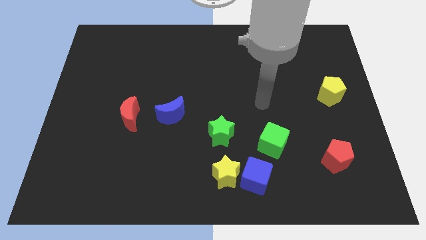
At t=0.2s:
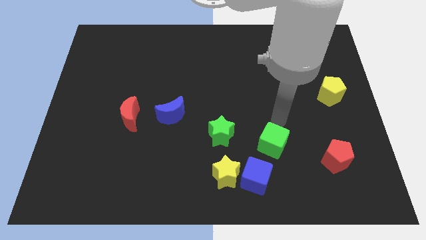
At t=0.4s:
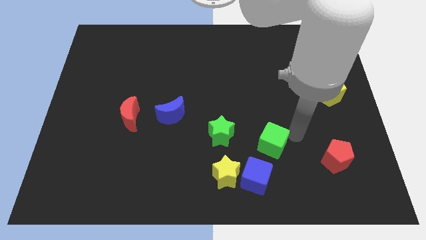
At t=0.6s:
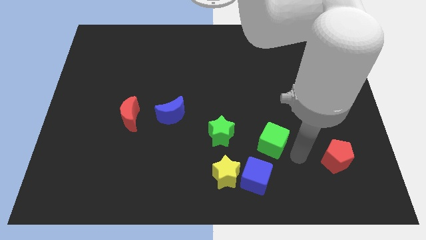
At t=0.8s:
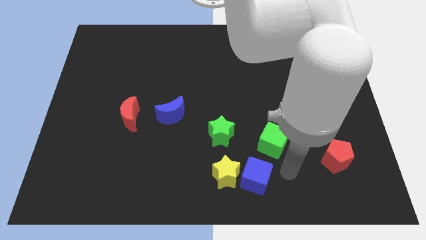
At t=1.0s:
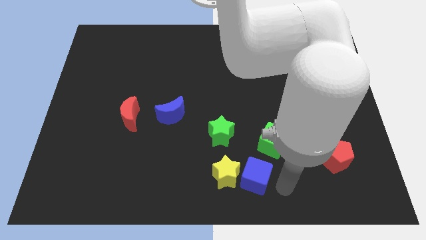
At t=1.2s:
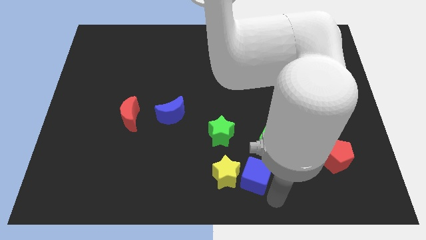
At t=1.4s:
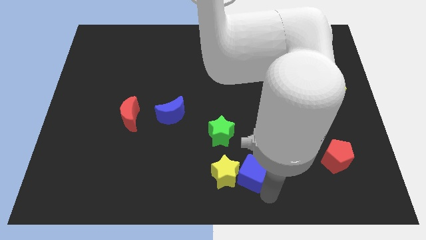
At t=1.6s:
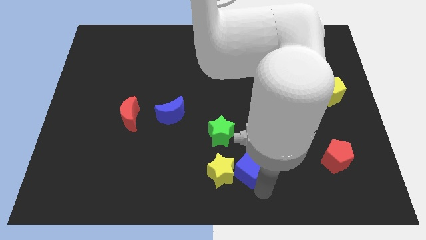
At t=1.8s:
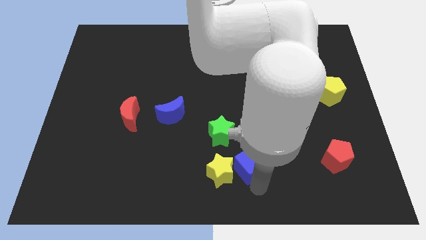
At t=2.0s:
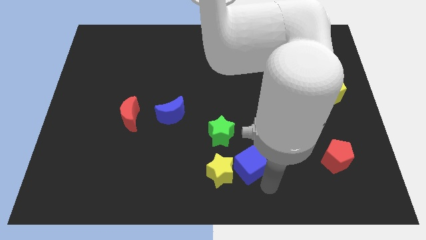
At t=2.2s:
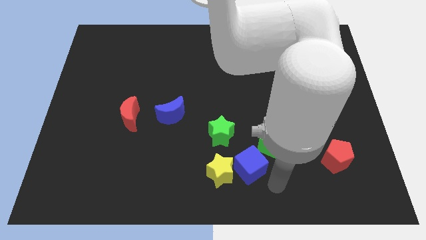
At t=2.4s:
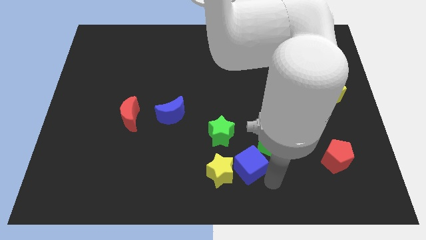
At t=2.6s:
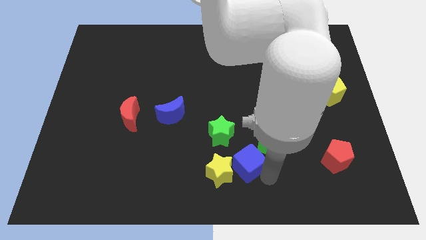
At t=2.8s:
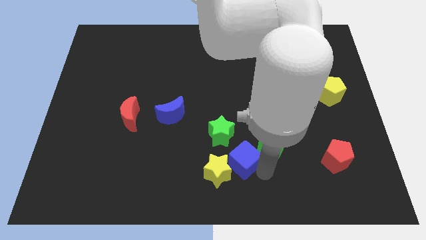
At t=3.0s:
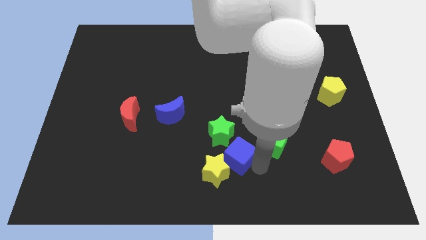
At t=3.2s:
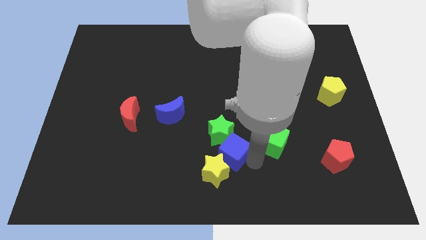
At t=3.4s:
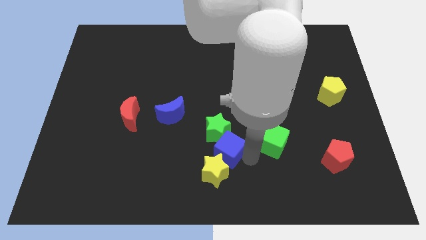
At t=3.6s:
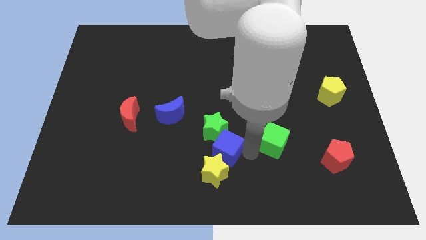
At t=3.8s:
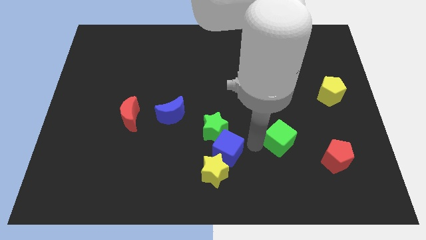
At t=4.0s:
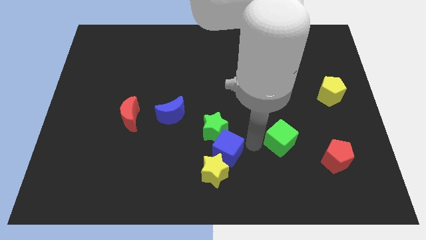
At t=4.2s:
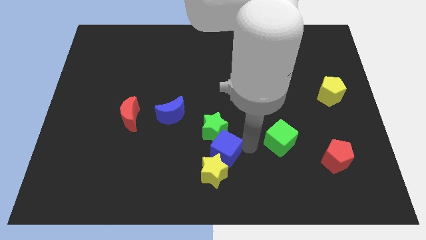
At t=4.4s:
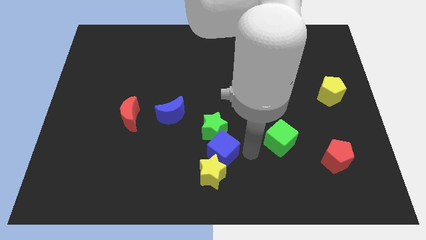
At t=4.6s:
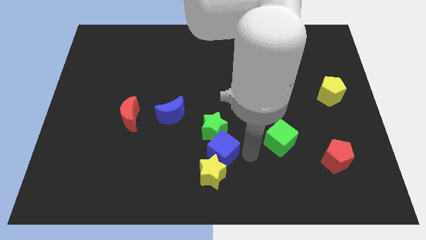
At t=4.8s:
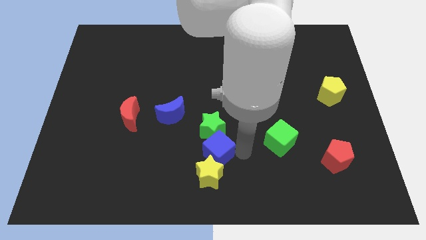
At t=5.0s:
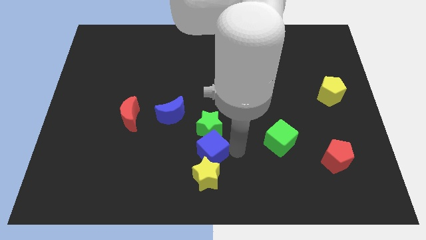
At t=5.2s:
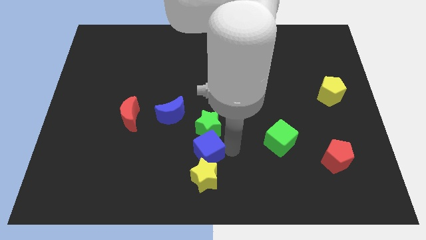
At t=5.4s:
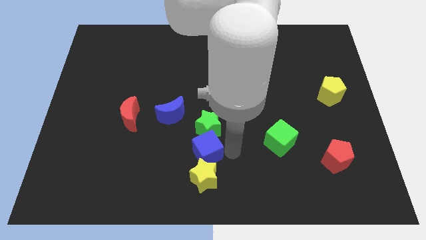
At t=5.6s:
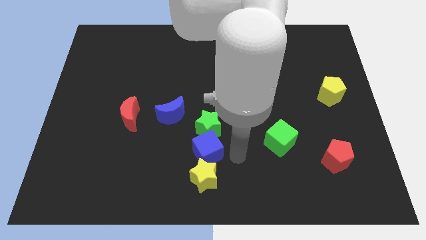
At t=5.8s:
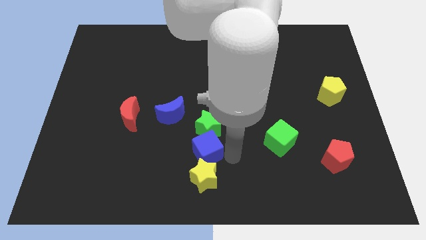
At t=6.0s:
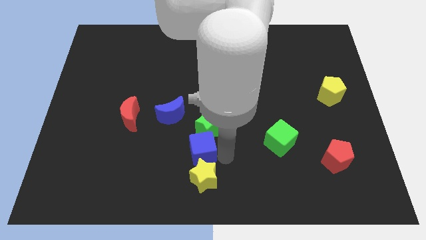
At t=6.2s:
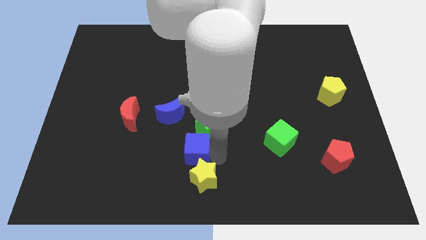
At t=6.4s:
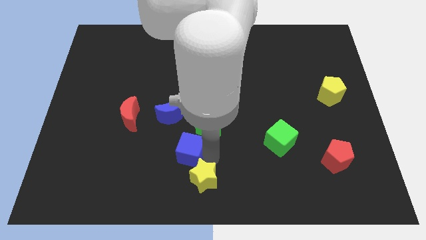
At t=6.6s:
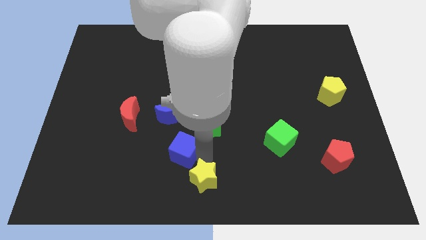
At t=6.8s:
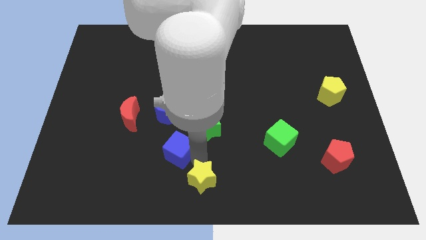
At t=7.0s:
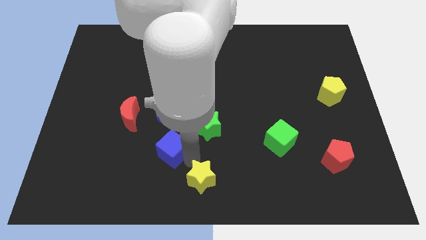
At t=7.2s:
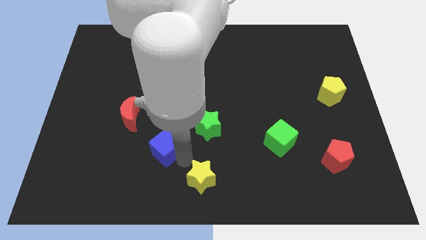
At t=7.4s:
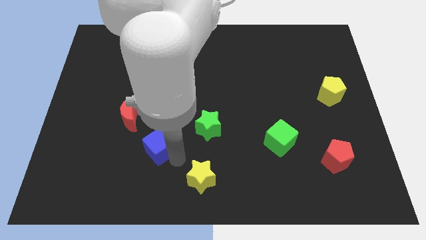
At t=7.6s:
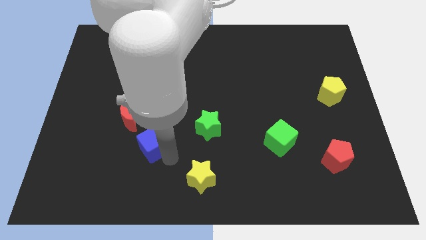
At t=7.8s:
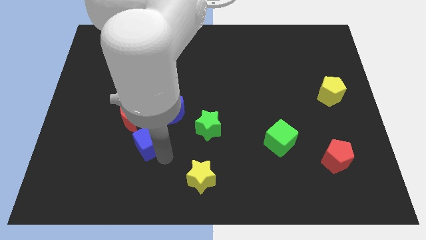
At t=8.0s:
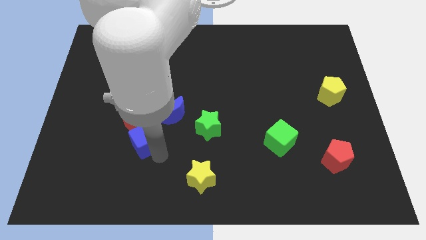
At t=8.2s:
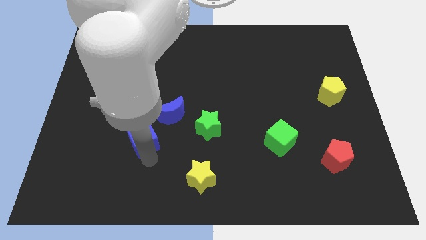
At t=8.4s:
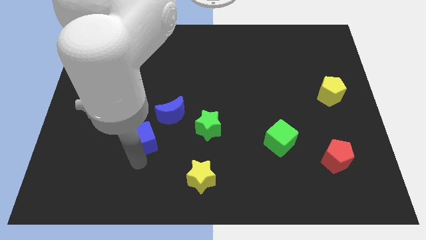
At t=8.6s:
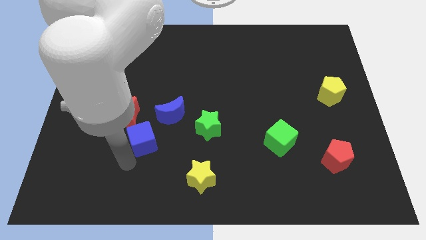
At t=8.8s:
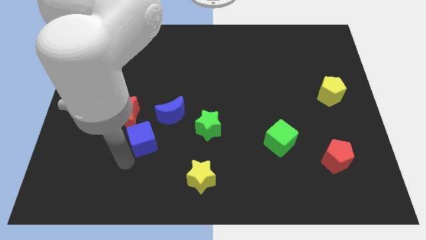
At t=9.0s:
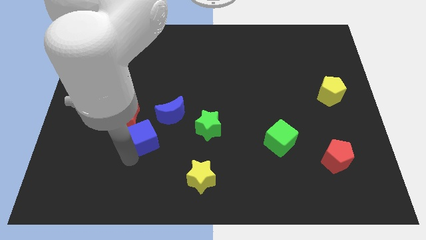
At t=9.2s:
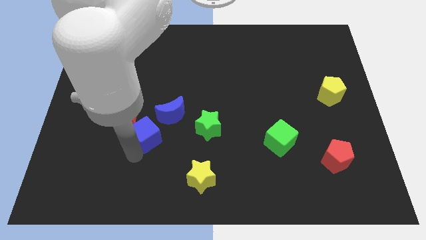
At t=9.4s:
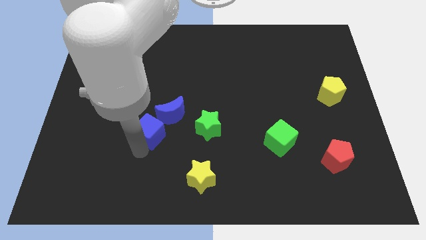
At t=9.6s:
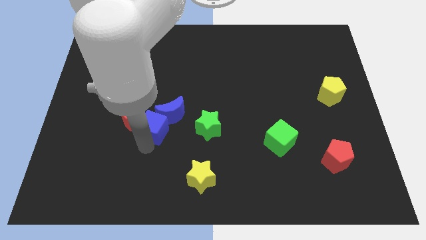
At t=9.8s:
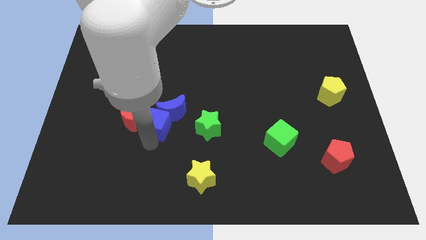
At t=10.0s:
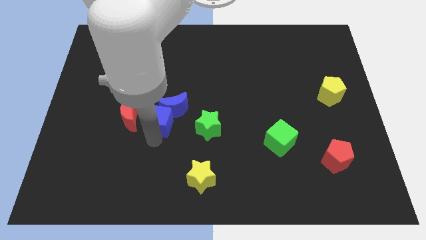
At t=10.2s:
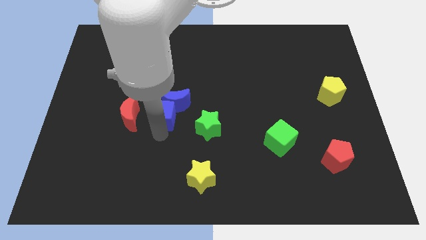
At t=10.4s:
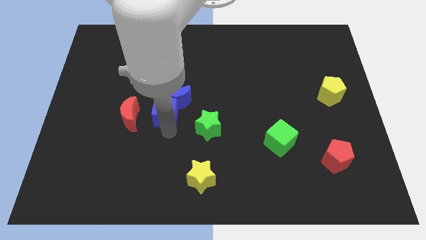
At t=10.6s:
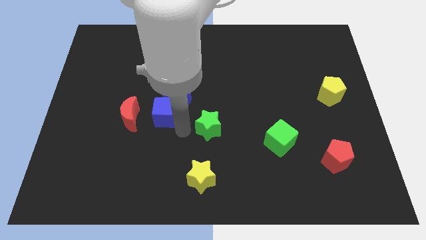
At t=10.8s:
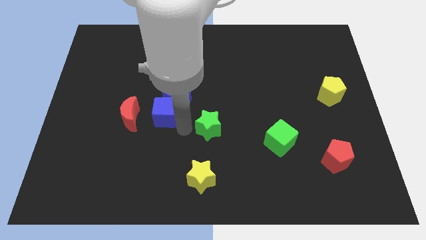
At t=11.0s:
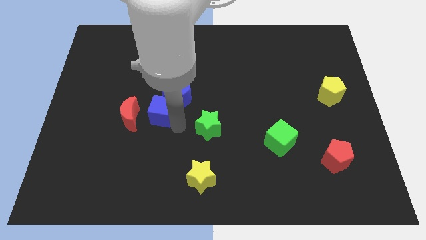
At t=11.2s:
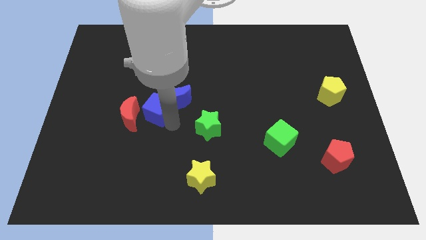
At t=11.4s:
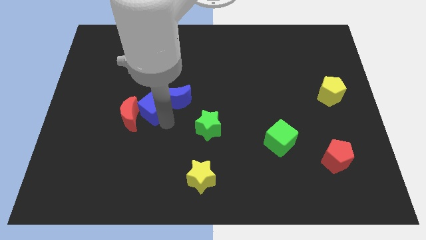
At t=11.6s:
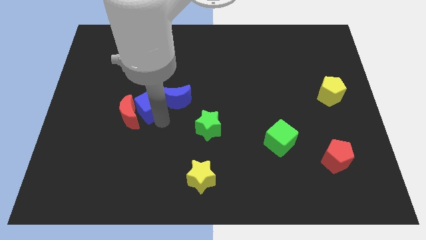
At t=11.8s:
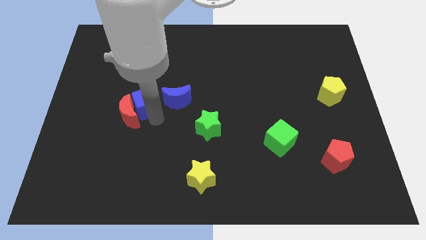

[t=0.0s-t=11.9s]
move the blue cube to the top side of the red moon

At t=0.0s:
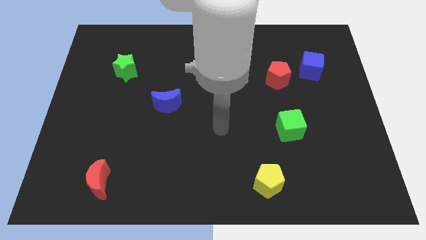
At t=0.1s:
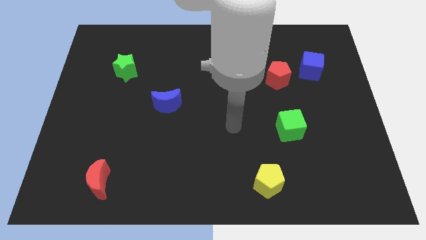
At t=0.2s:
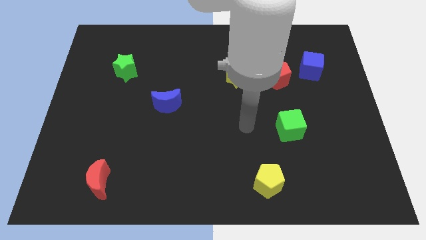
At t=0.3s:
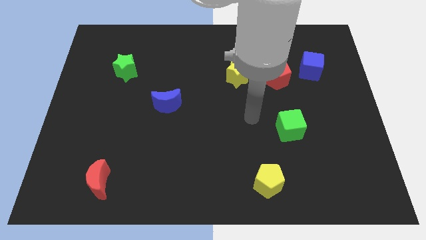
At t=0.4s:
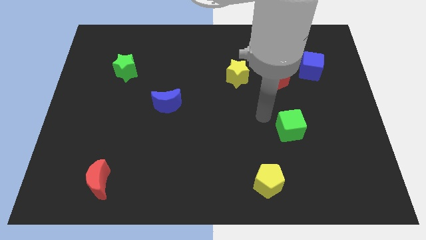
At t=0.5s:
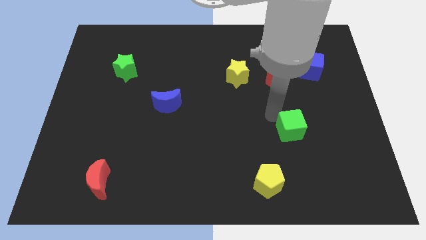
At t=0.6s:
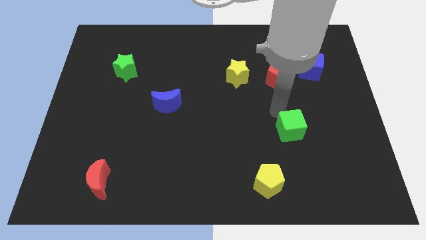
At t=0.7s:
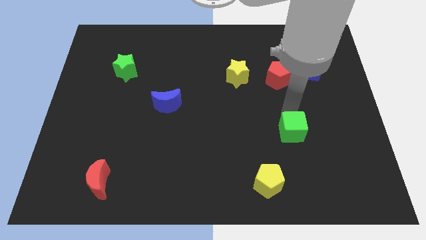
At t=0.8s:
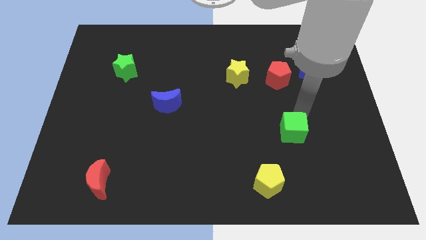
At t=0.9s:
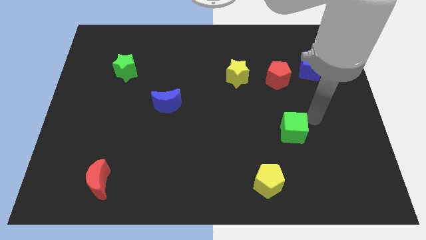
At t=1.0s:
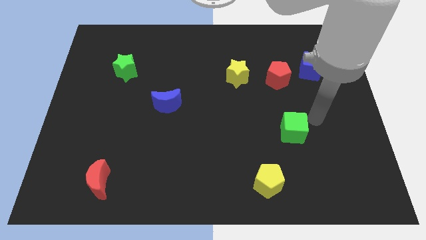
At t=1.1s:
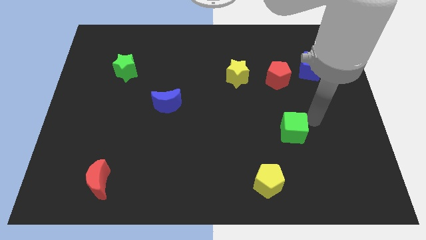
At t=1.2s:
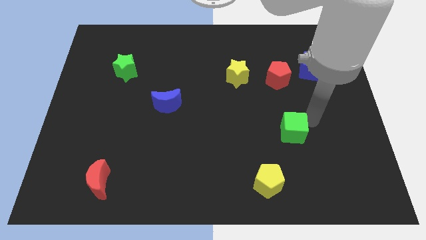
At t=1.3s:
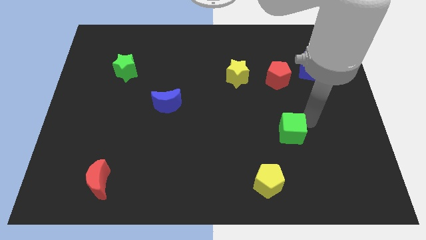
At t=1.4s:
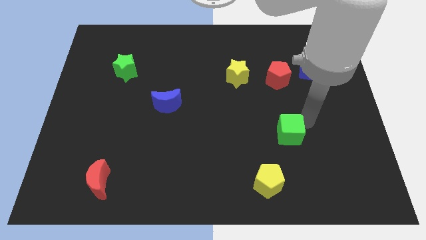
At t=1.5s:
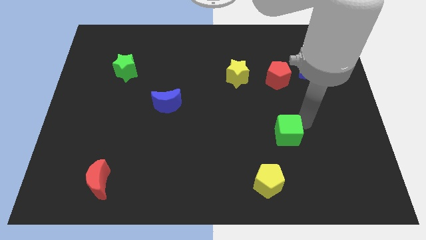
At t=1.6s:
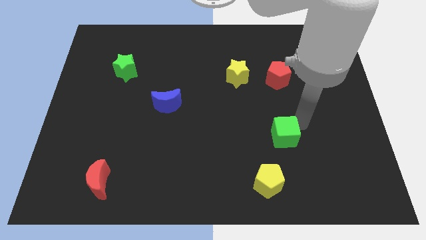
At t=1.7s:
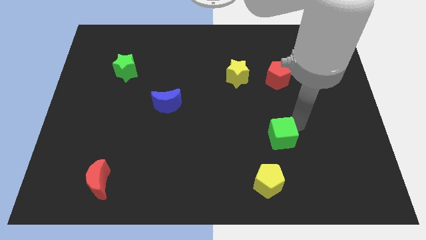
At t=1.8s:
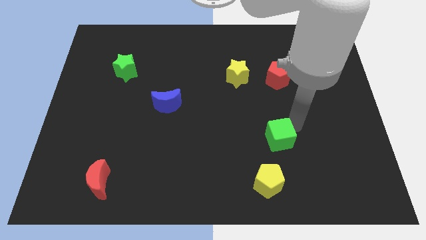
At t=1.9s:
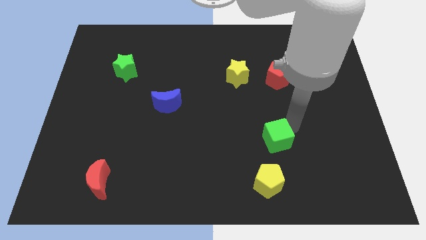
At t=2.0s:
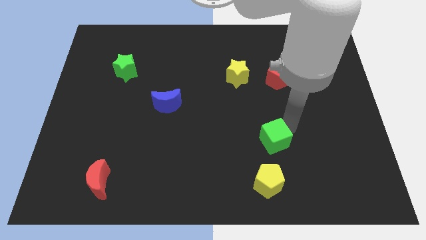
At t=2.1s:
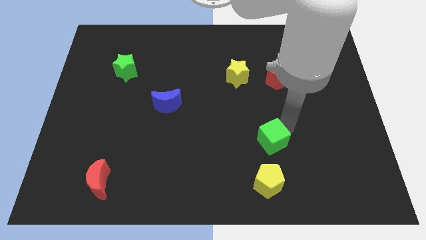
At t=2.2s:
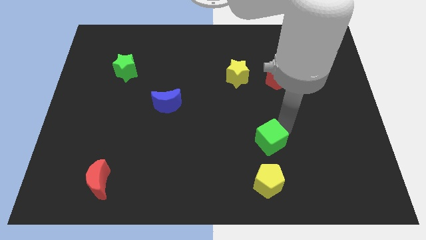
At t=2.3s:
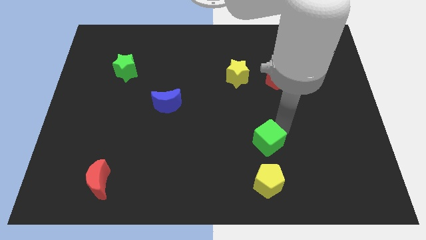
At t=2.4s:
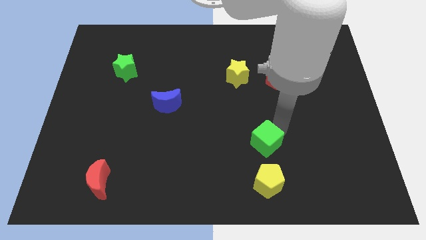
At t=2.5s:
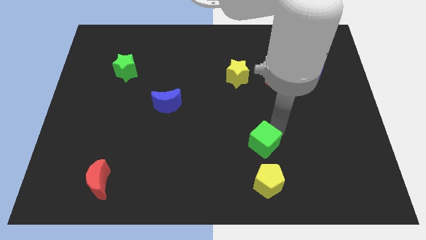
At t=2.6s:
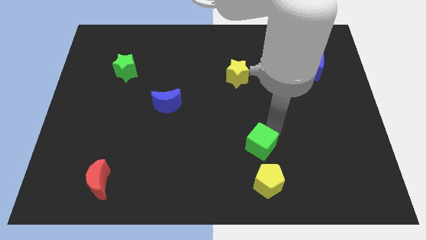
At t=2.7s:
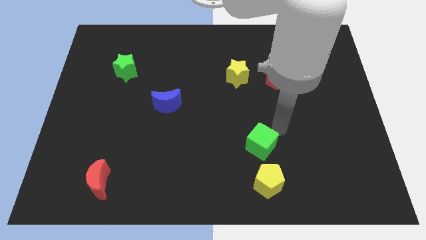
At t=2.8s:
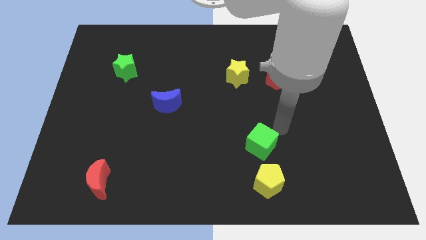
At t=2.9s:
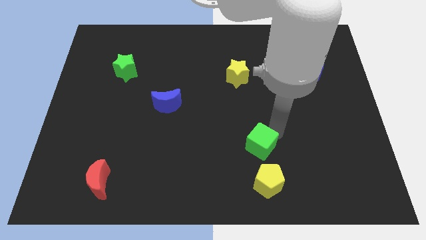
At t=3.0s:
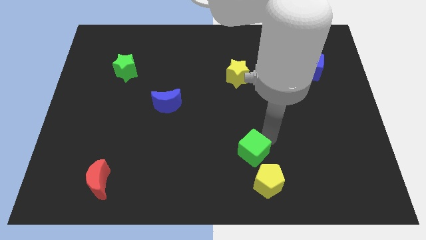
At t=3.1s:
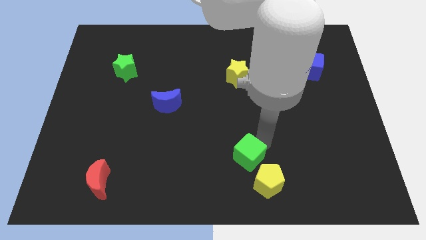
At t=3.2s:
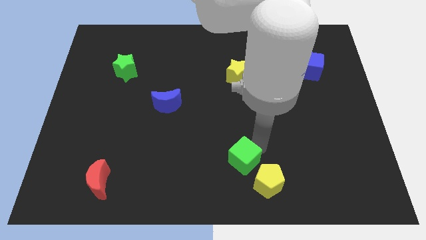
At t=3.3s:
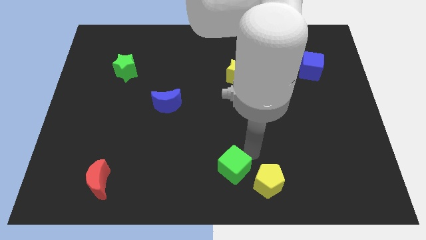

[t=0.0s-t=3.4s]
slide the green cube just left of the yellow pentagon
